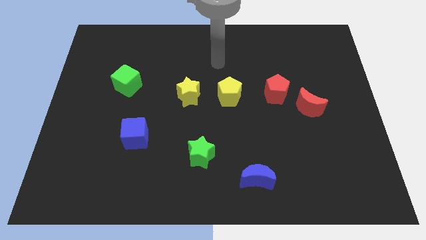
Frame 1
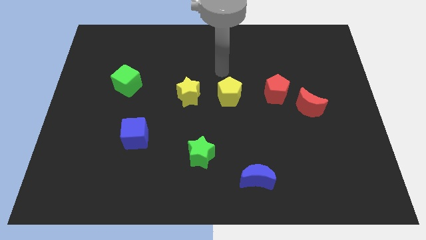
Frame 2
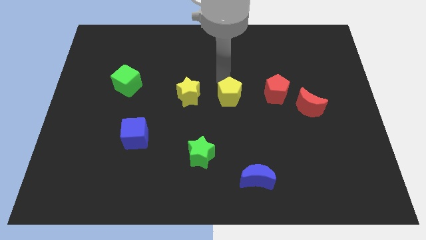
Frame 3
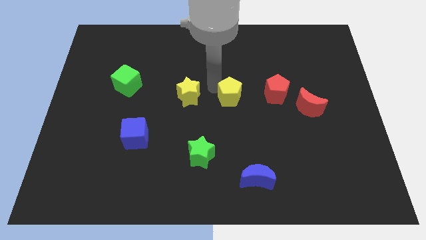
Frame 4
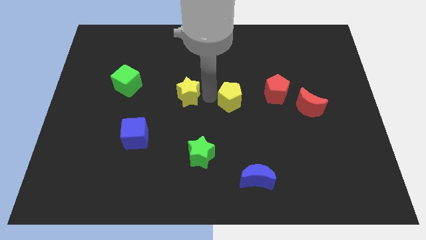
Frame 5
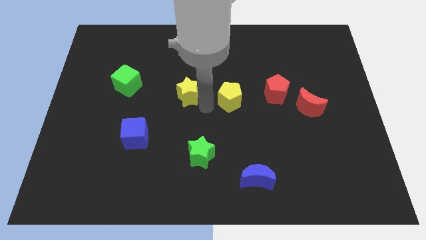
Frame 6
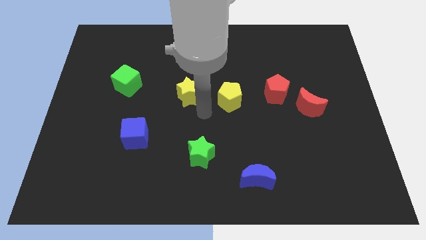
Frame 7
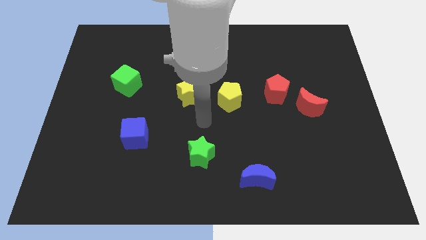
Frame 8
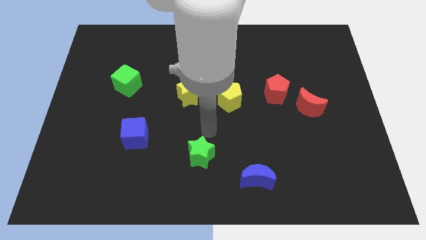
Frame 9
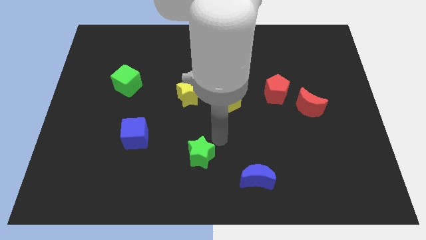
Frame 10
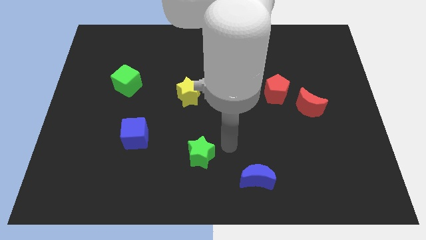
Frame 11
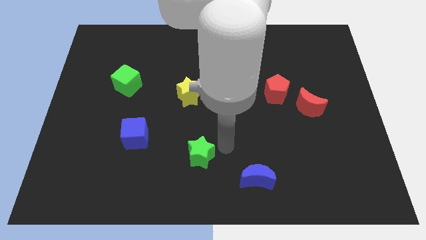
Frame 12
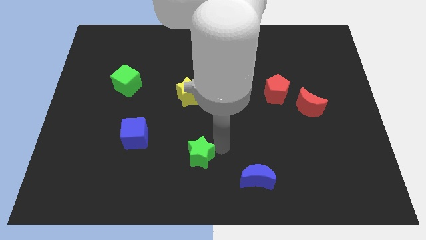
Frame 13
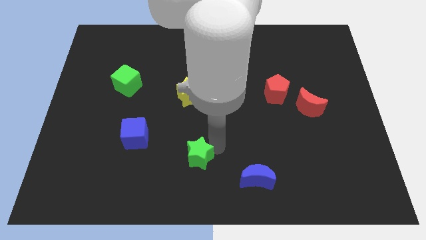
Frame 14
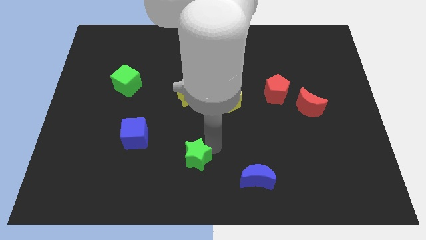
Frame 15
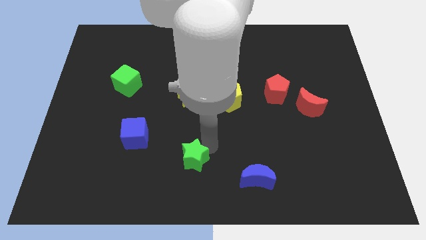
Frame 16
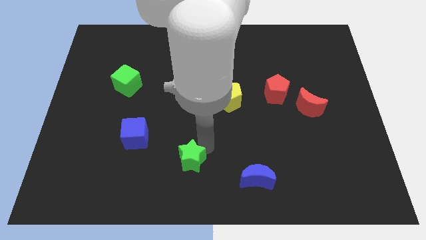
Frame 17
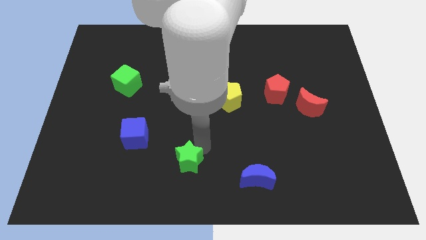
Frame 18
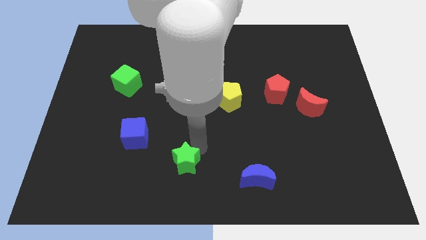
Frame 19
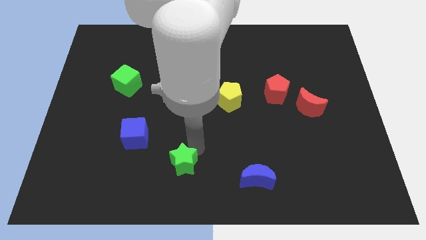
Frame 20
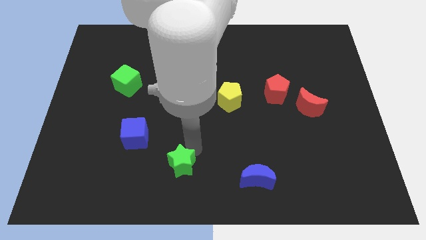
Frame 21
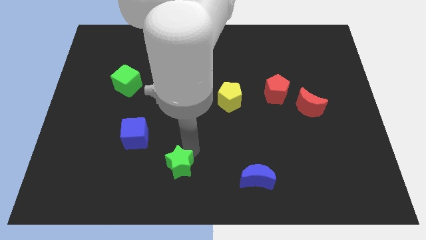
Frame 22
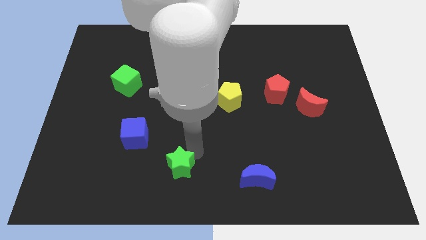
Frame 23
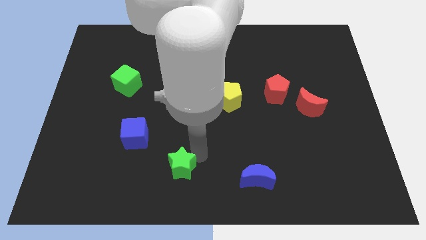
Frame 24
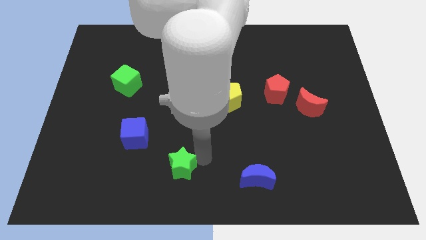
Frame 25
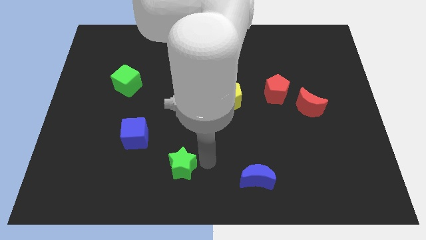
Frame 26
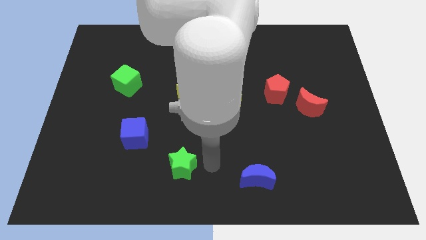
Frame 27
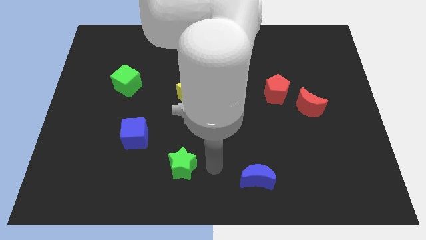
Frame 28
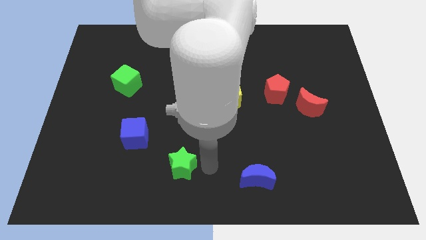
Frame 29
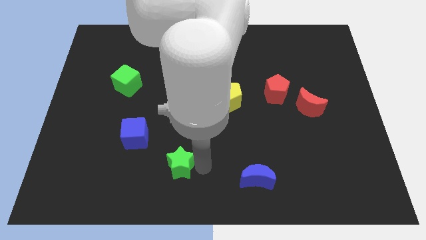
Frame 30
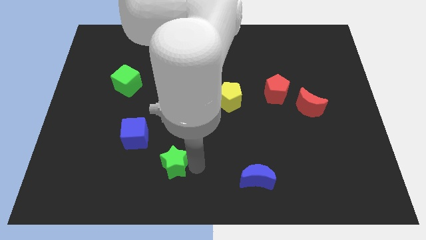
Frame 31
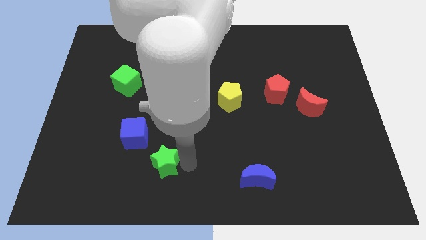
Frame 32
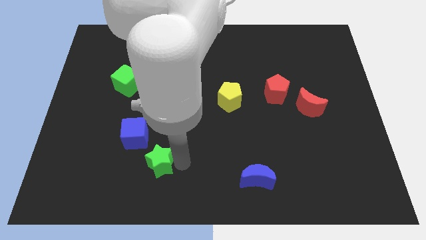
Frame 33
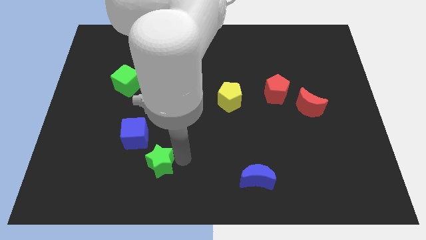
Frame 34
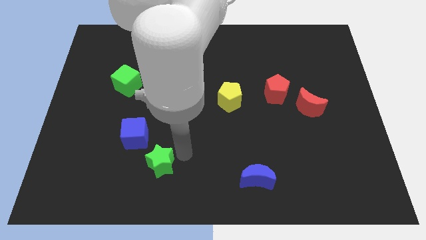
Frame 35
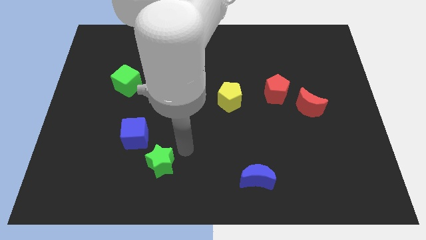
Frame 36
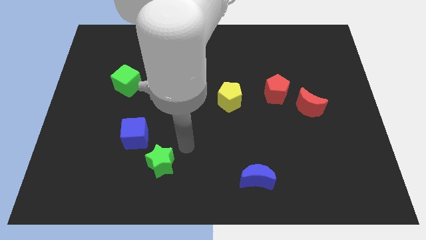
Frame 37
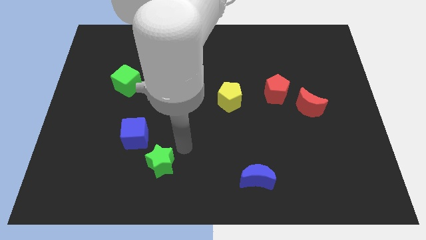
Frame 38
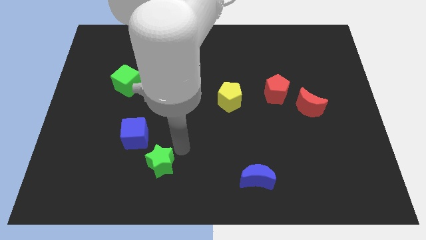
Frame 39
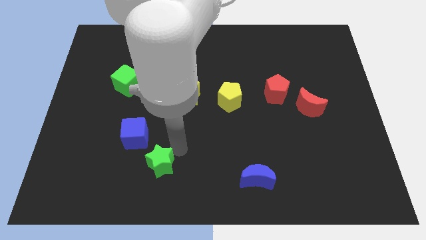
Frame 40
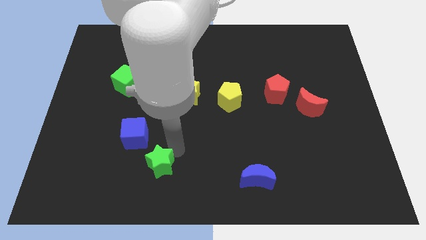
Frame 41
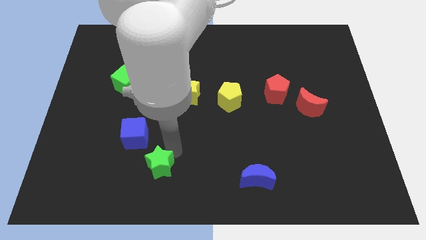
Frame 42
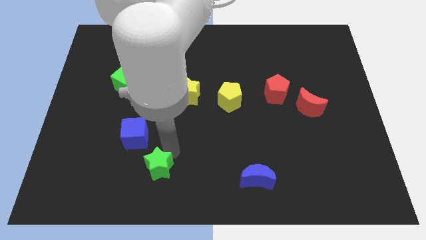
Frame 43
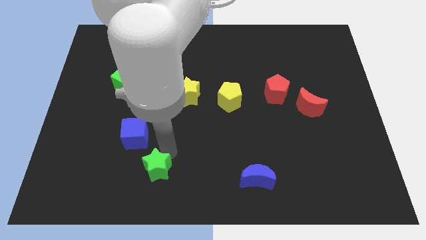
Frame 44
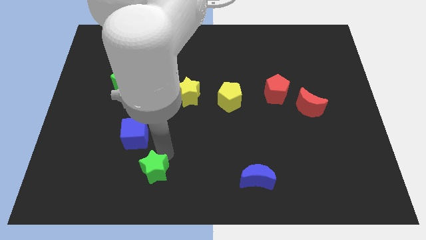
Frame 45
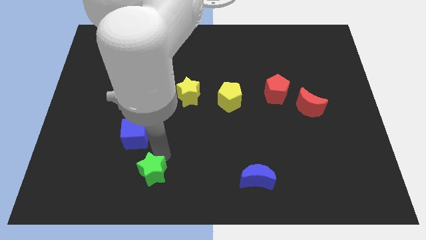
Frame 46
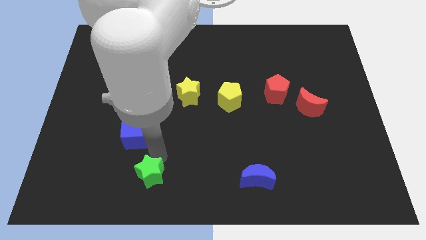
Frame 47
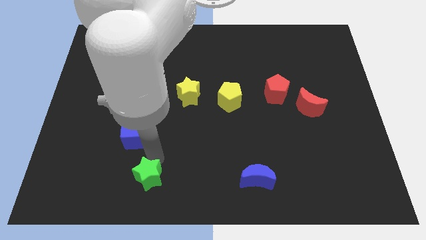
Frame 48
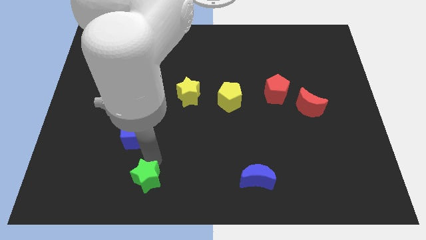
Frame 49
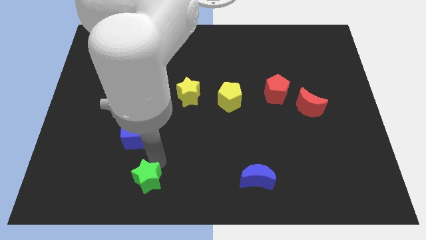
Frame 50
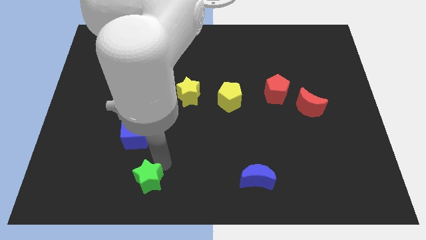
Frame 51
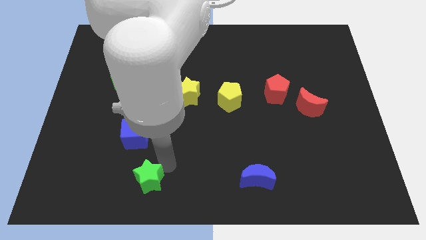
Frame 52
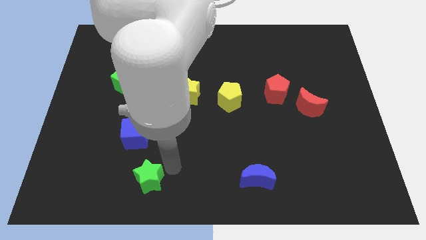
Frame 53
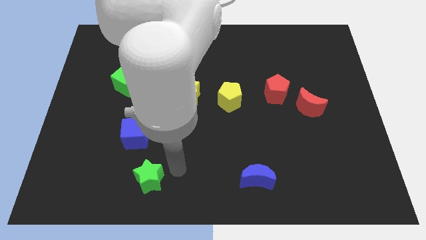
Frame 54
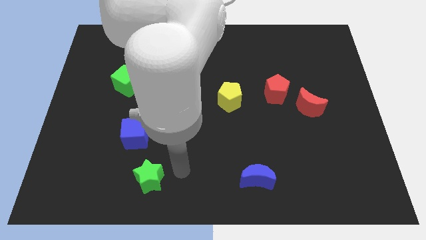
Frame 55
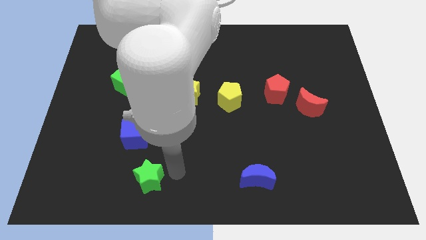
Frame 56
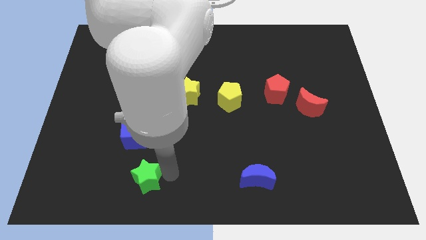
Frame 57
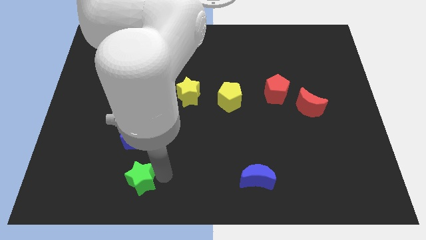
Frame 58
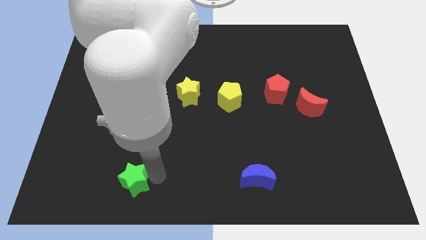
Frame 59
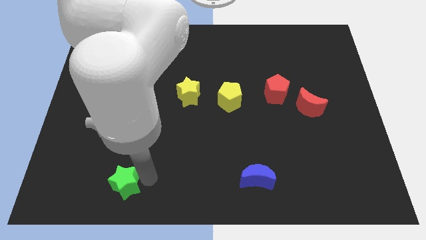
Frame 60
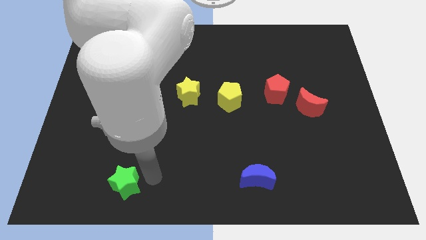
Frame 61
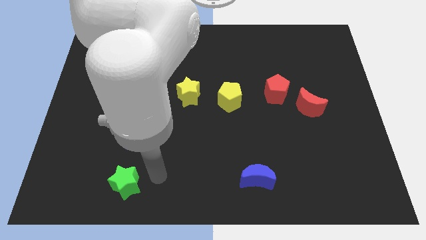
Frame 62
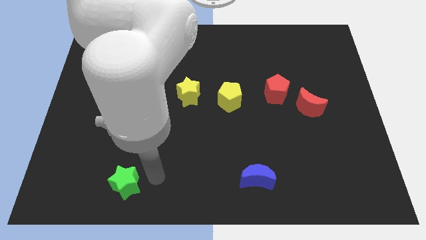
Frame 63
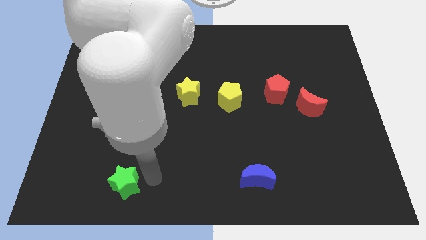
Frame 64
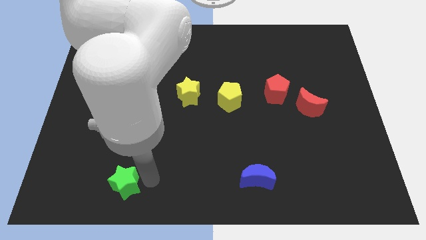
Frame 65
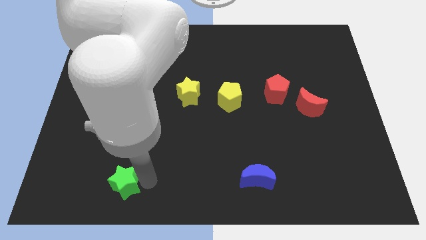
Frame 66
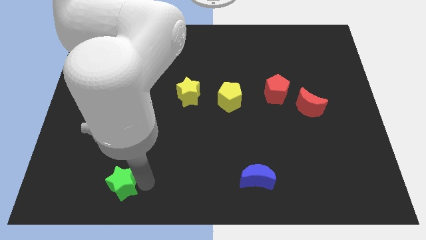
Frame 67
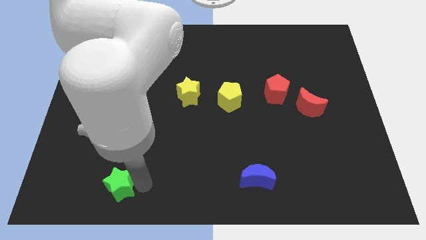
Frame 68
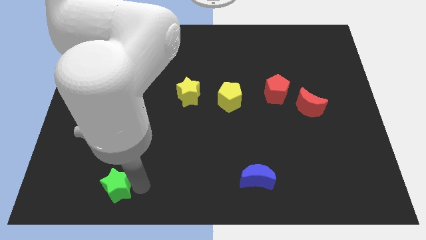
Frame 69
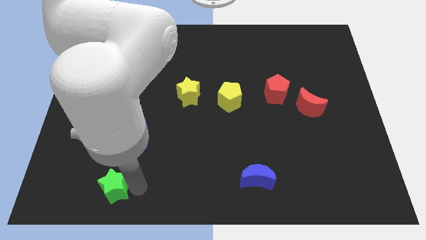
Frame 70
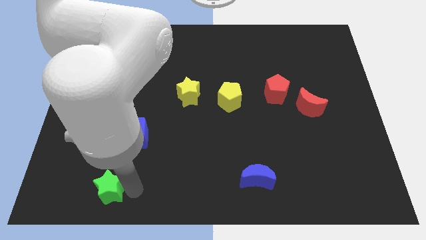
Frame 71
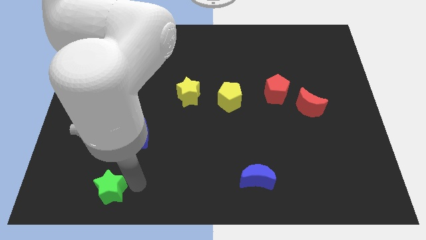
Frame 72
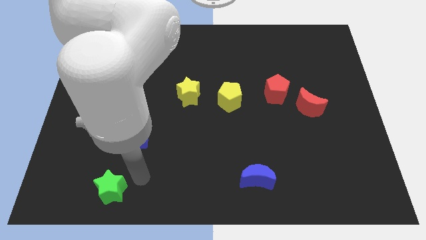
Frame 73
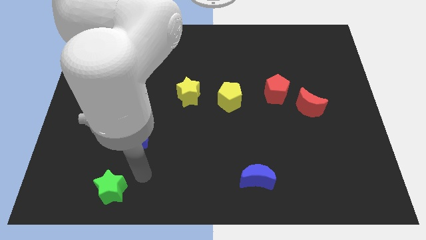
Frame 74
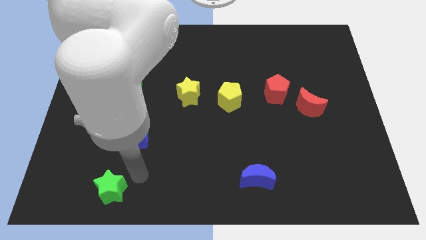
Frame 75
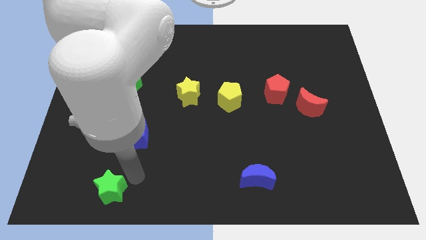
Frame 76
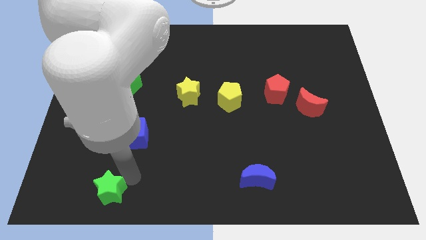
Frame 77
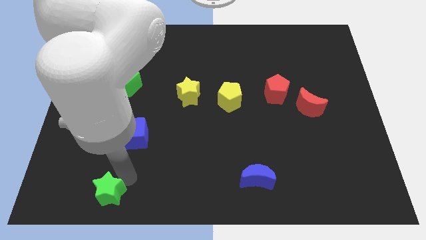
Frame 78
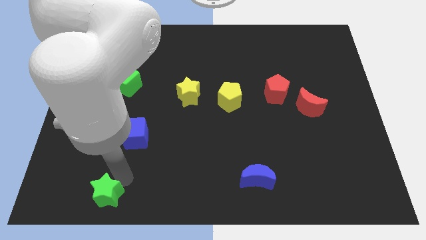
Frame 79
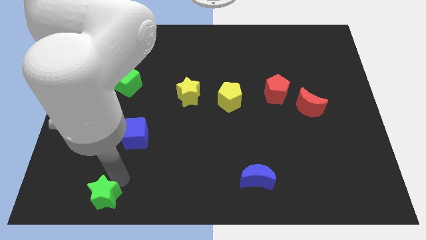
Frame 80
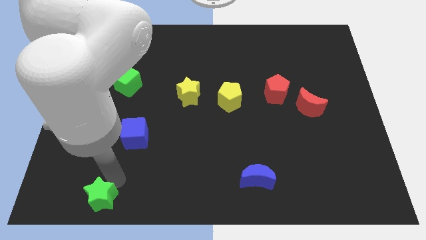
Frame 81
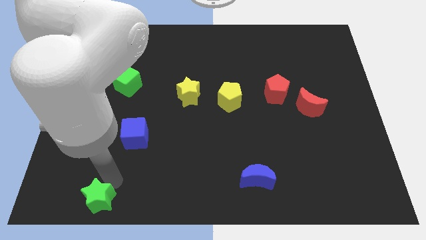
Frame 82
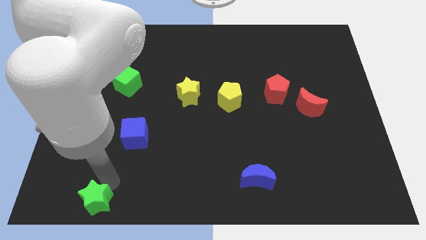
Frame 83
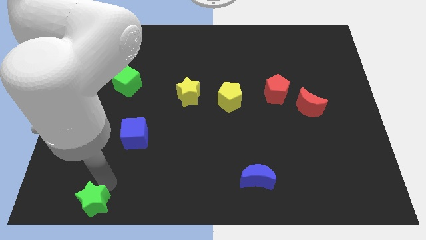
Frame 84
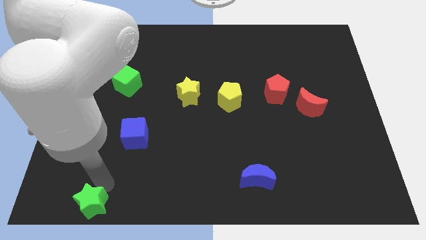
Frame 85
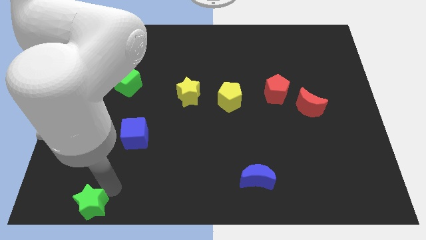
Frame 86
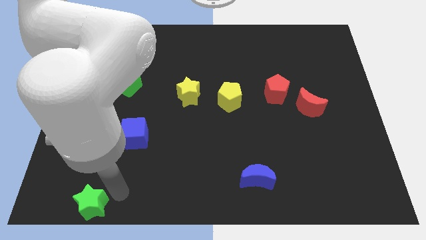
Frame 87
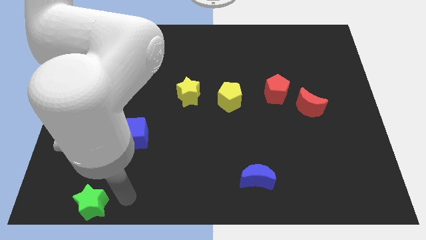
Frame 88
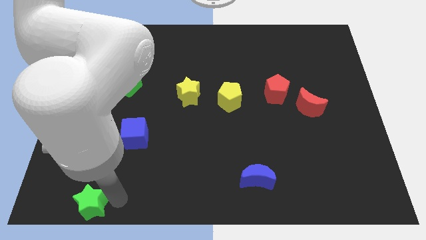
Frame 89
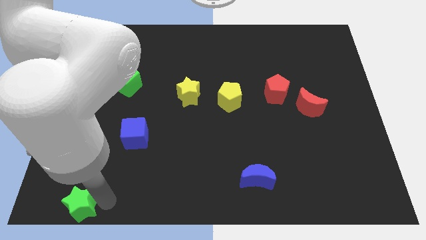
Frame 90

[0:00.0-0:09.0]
put the green star to the bottom left of the board
